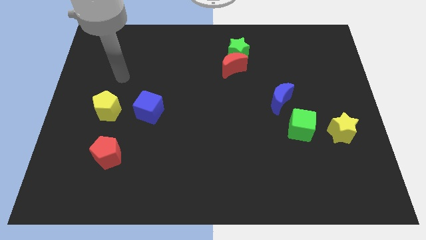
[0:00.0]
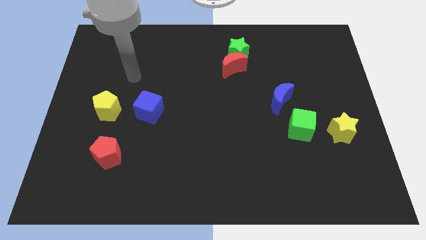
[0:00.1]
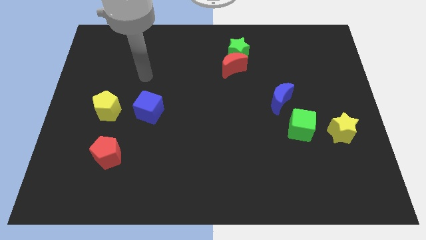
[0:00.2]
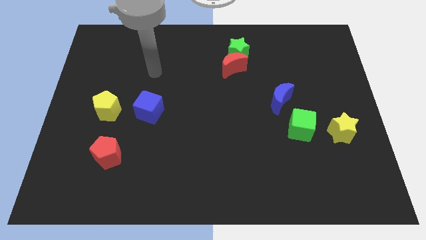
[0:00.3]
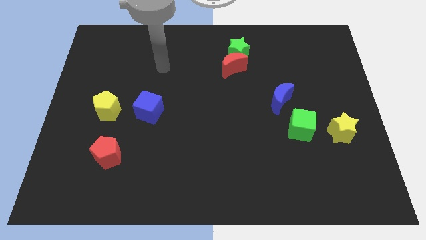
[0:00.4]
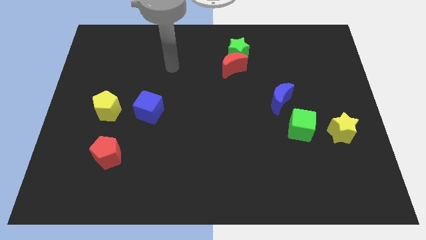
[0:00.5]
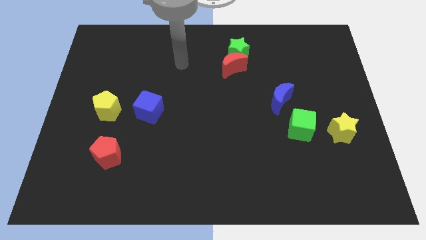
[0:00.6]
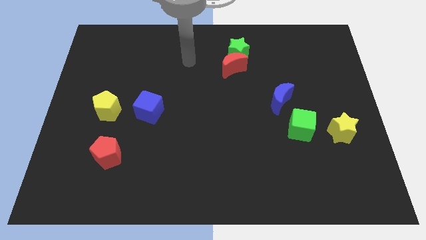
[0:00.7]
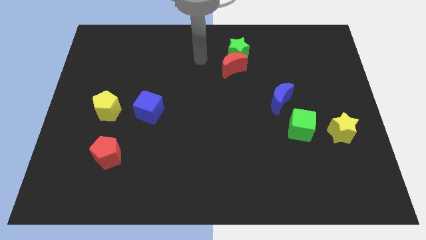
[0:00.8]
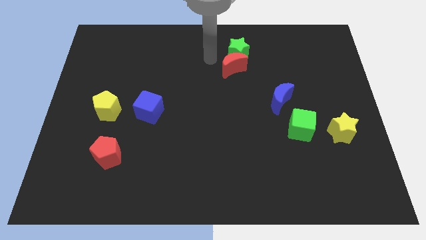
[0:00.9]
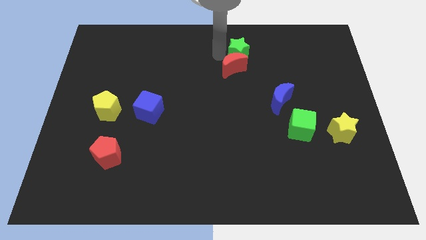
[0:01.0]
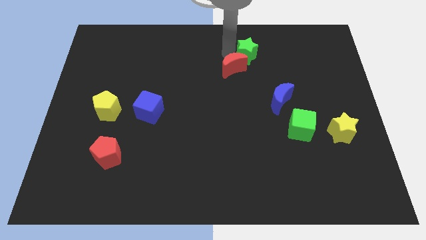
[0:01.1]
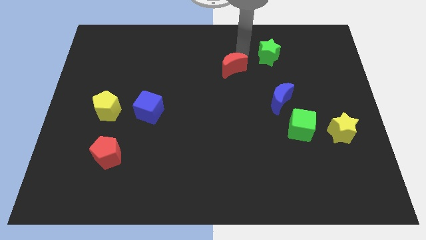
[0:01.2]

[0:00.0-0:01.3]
move the red moon away from the green star

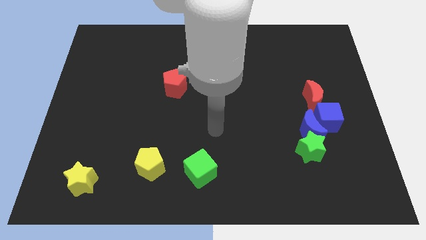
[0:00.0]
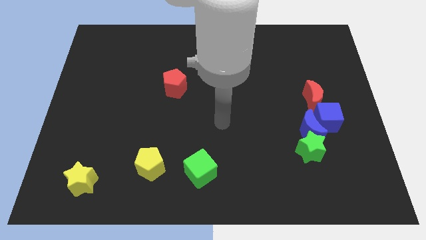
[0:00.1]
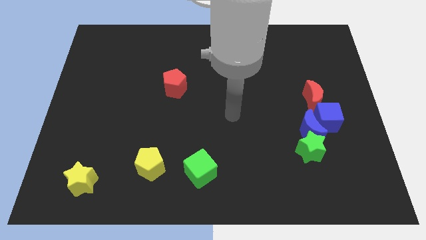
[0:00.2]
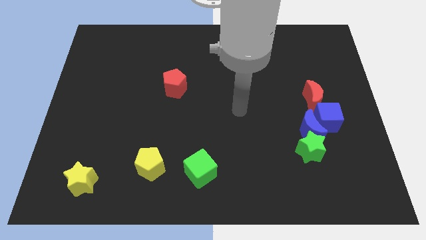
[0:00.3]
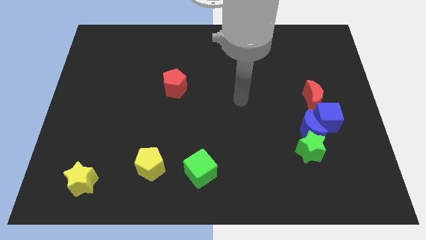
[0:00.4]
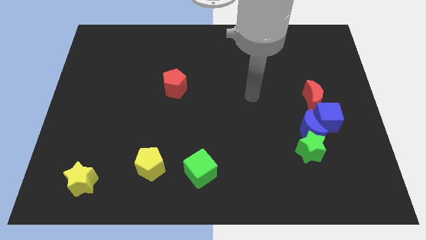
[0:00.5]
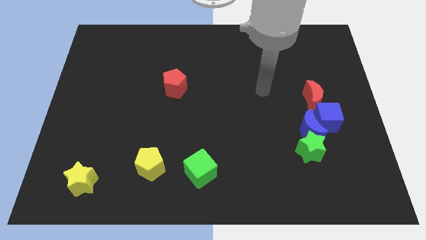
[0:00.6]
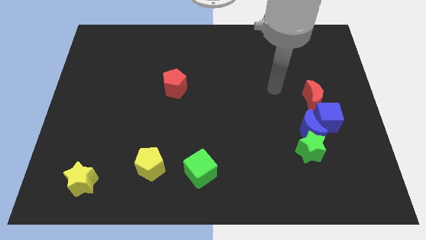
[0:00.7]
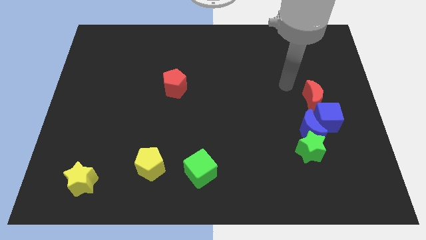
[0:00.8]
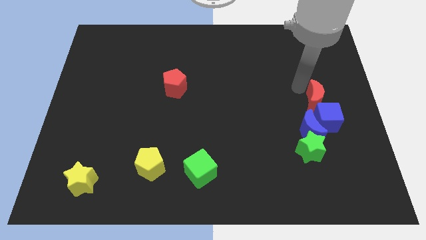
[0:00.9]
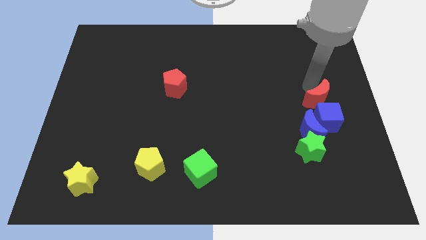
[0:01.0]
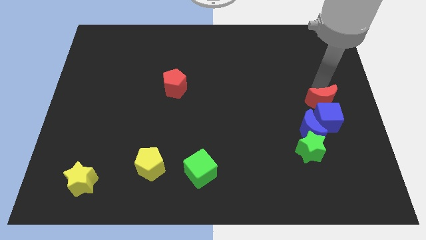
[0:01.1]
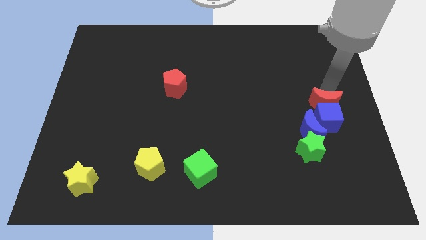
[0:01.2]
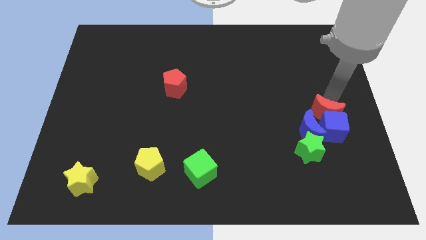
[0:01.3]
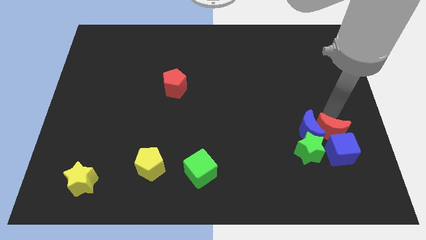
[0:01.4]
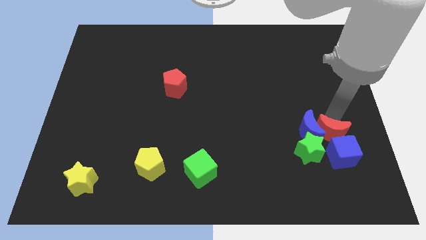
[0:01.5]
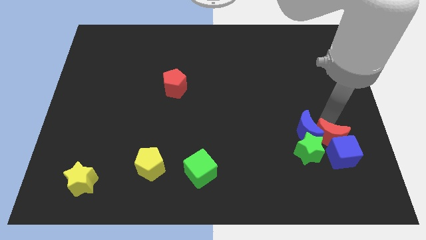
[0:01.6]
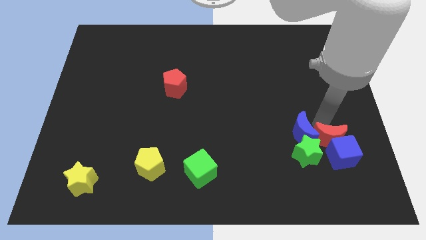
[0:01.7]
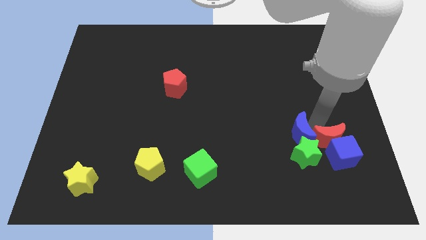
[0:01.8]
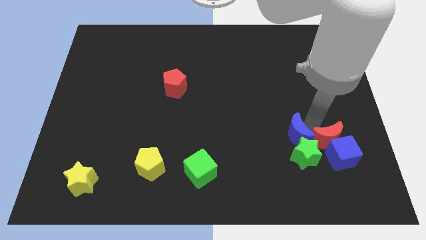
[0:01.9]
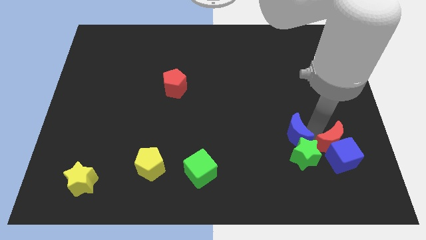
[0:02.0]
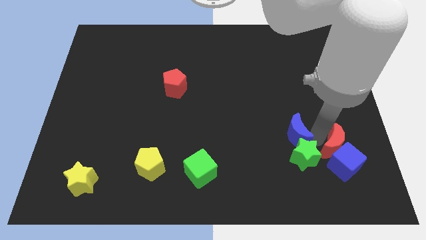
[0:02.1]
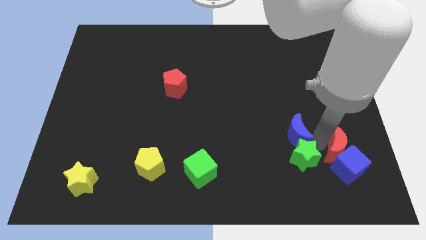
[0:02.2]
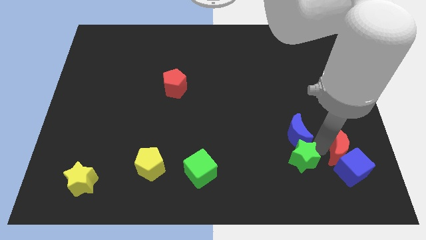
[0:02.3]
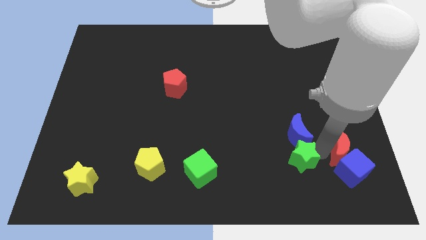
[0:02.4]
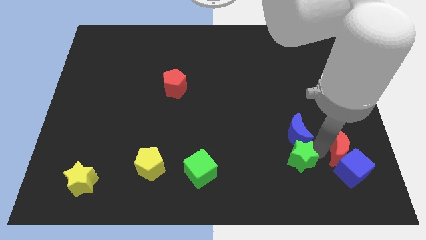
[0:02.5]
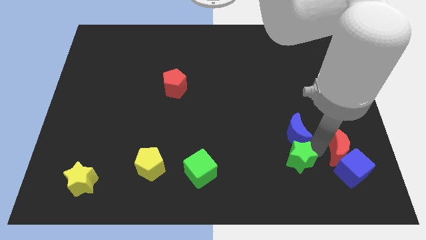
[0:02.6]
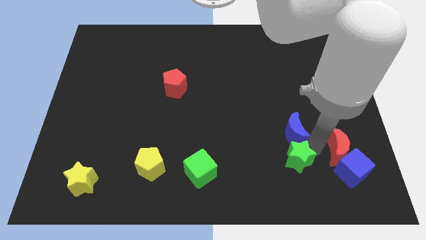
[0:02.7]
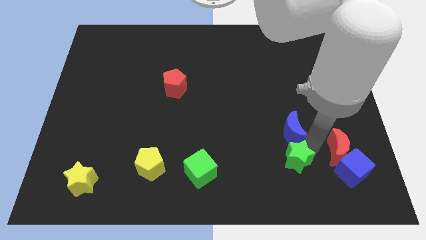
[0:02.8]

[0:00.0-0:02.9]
separate the blue moon from the group

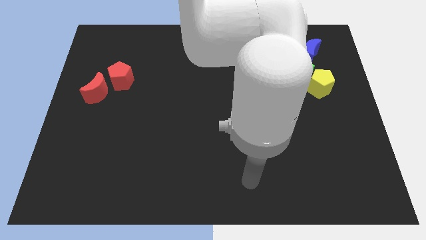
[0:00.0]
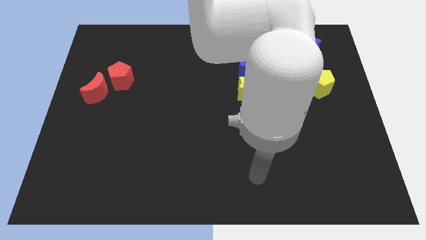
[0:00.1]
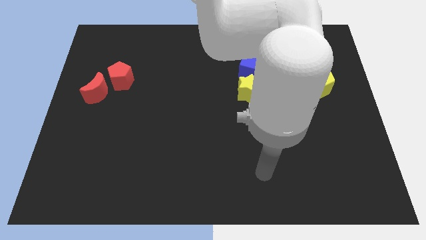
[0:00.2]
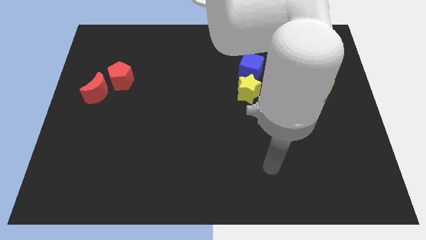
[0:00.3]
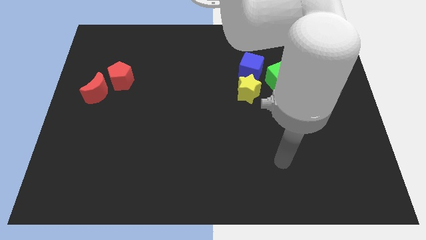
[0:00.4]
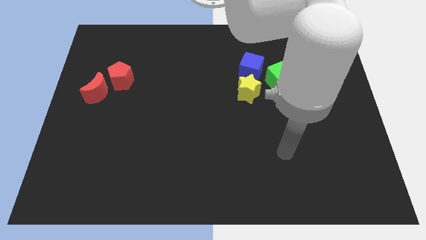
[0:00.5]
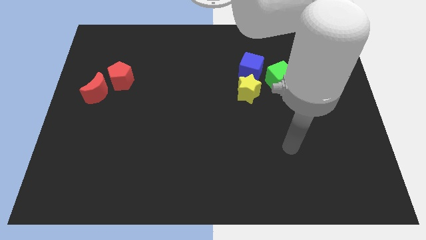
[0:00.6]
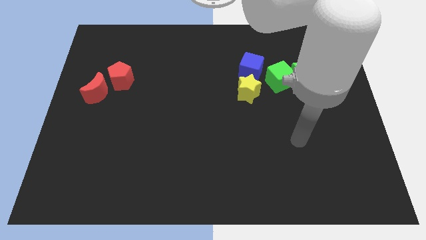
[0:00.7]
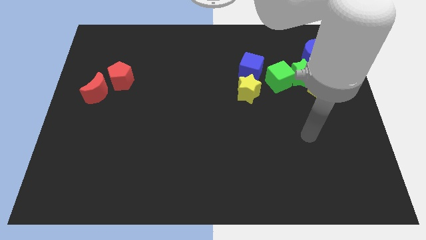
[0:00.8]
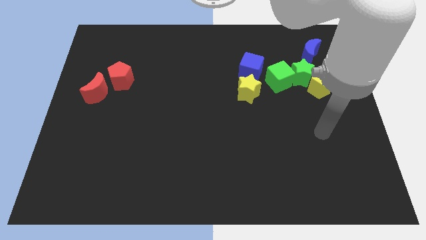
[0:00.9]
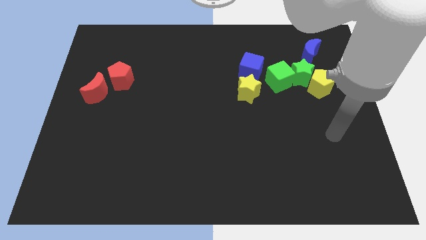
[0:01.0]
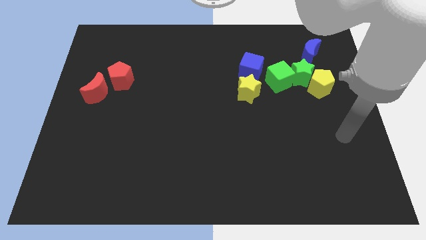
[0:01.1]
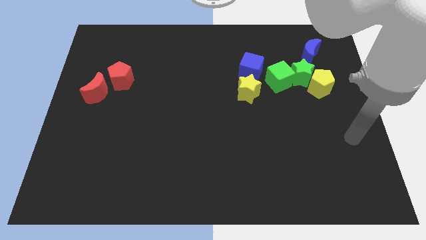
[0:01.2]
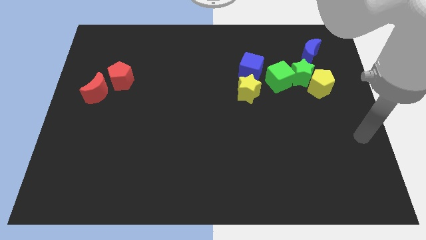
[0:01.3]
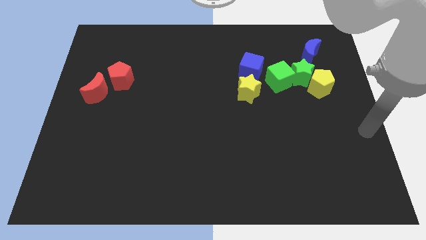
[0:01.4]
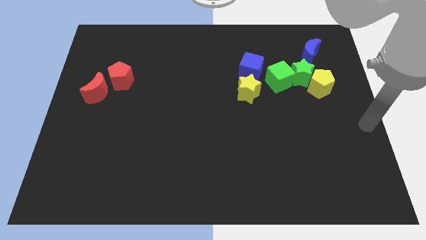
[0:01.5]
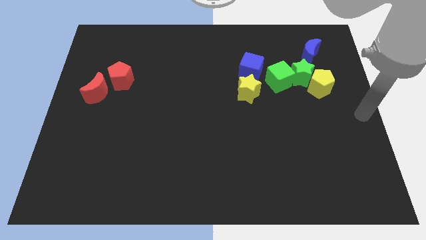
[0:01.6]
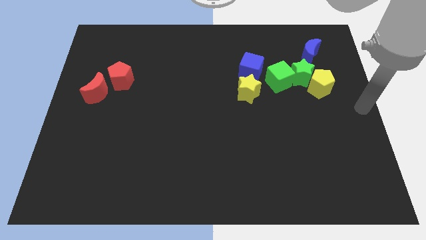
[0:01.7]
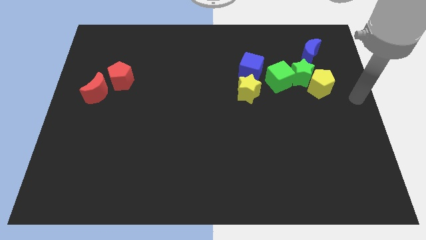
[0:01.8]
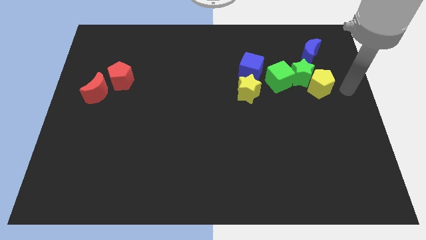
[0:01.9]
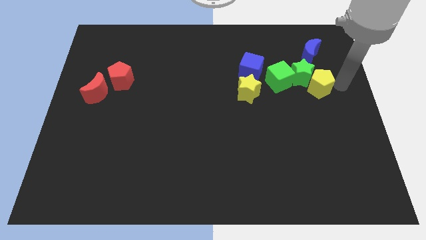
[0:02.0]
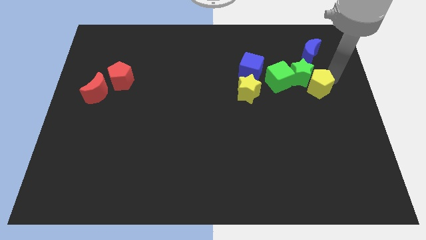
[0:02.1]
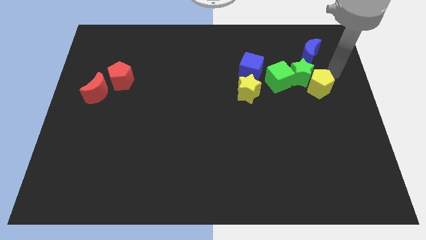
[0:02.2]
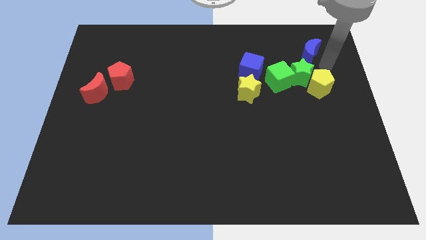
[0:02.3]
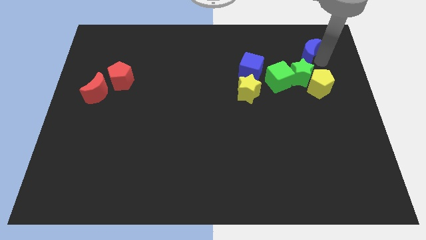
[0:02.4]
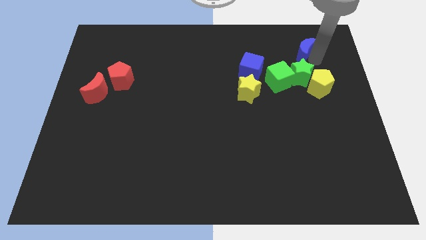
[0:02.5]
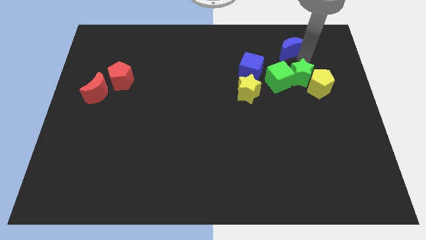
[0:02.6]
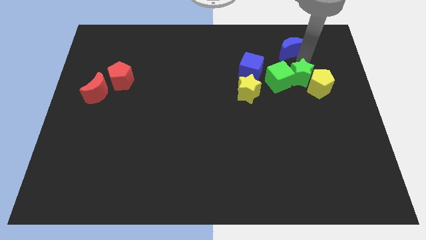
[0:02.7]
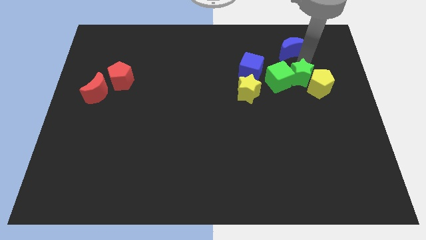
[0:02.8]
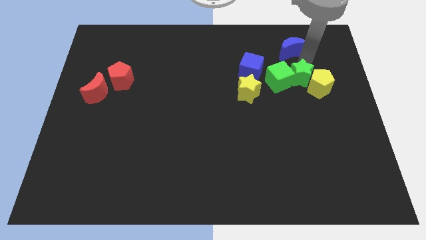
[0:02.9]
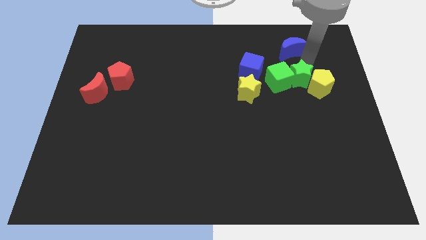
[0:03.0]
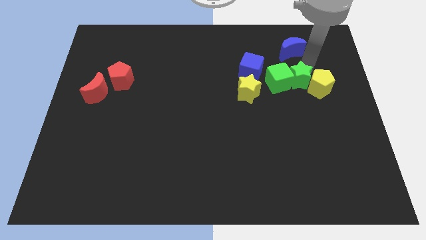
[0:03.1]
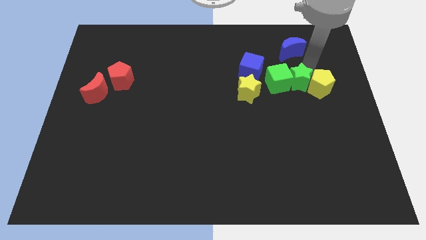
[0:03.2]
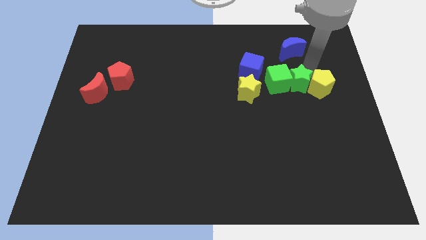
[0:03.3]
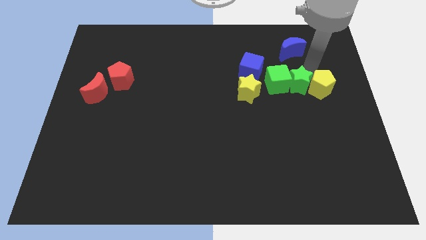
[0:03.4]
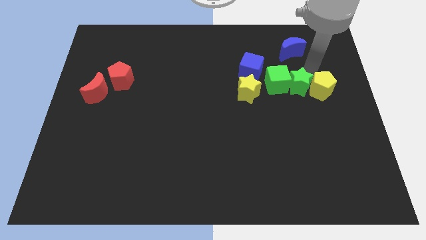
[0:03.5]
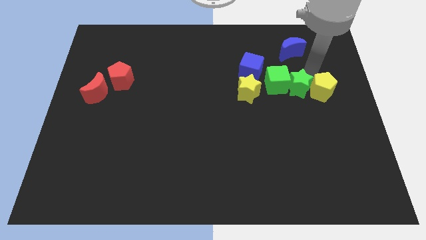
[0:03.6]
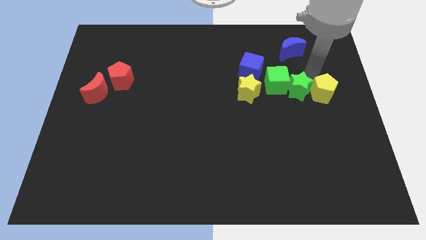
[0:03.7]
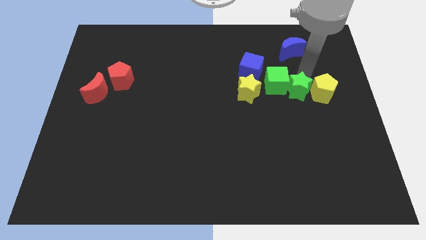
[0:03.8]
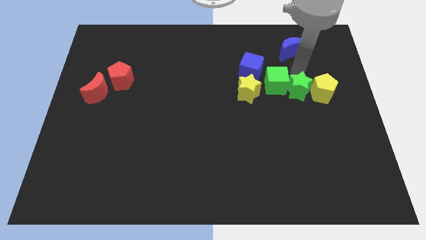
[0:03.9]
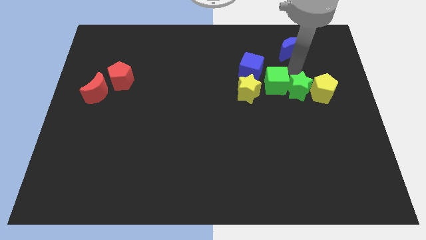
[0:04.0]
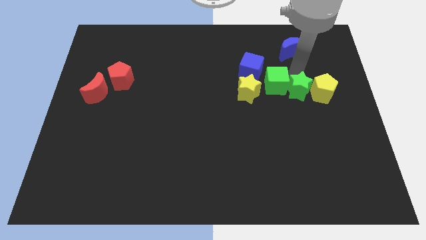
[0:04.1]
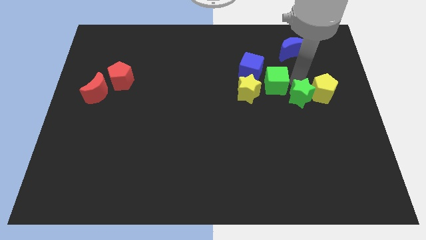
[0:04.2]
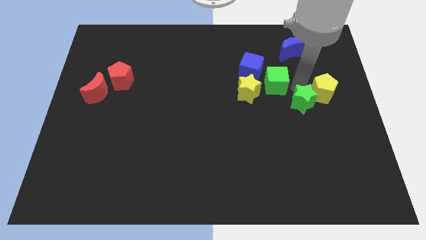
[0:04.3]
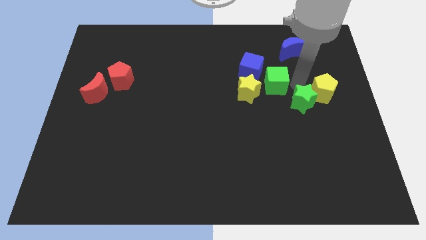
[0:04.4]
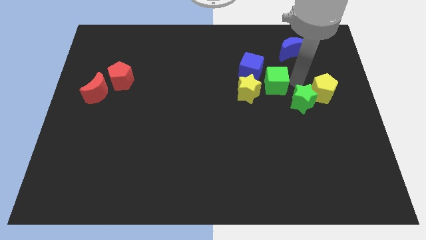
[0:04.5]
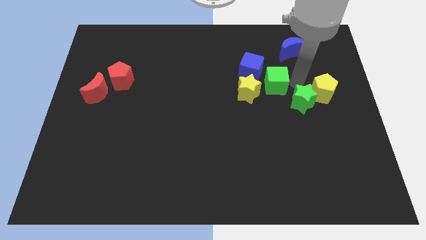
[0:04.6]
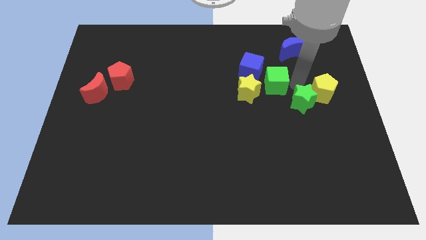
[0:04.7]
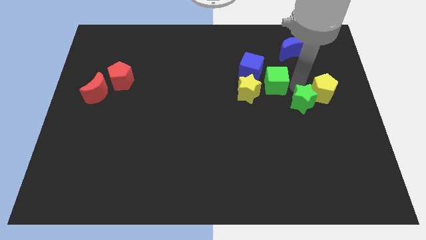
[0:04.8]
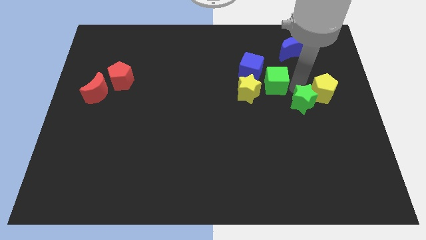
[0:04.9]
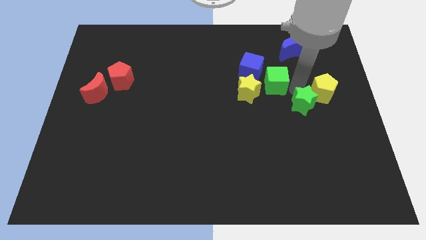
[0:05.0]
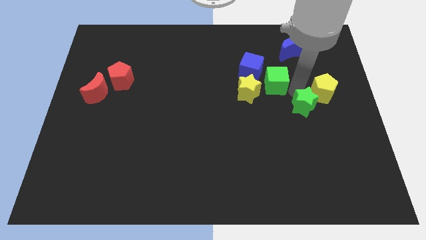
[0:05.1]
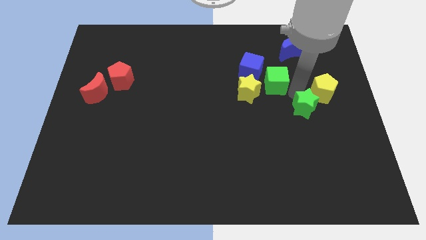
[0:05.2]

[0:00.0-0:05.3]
move the green star away from the yellow pentagon, green cube, and blue moon
